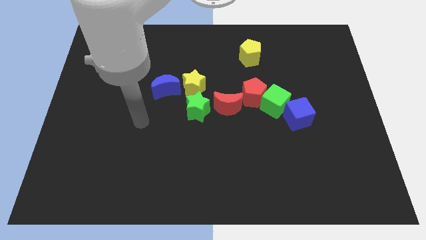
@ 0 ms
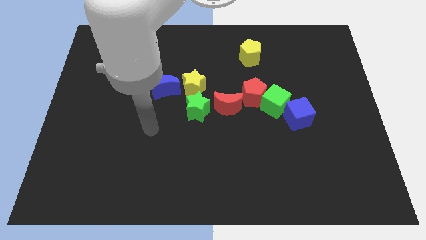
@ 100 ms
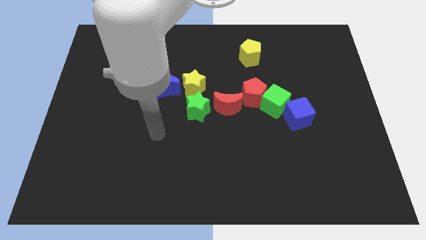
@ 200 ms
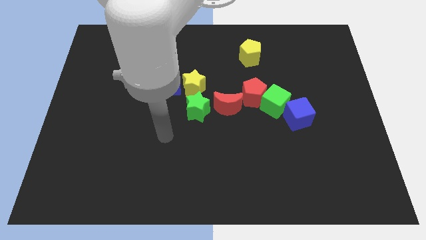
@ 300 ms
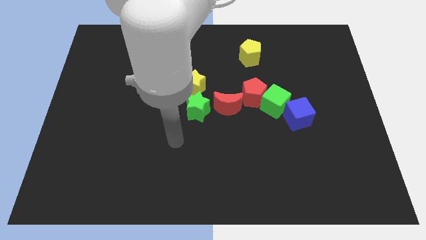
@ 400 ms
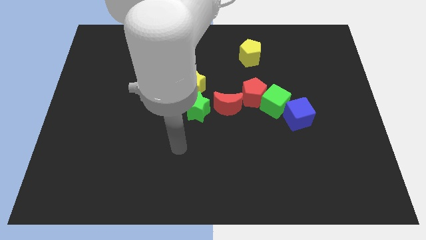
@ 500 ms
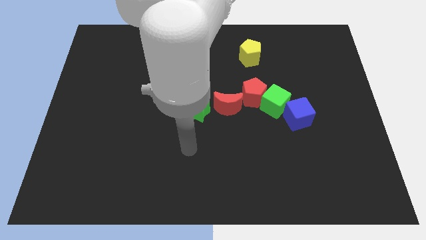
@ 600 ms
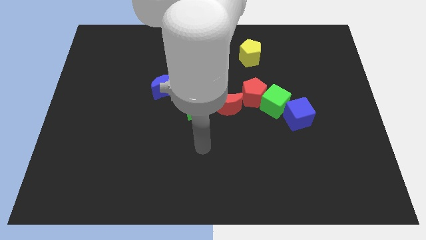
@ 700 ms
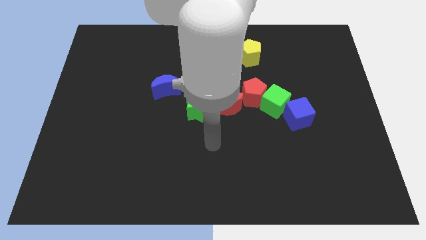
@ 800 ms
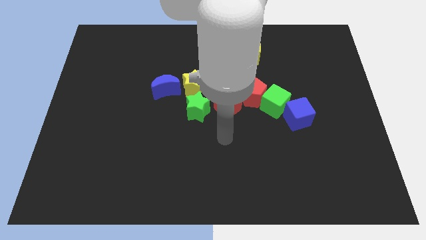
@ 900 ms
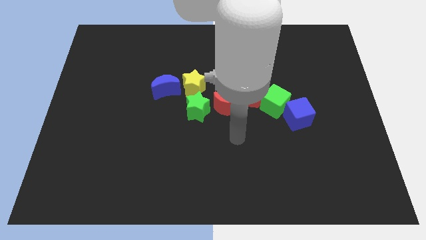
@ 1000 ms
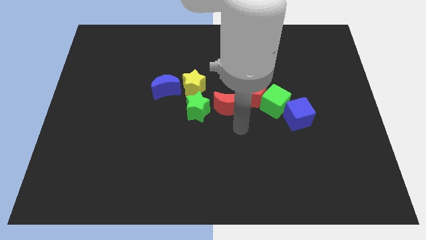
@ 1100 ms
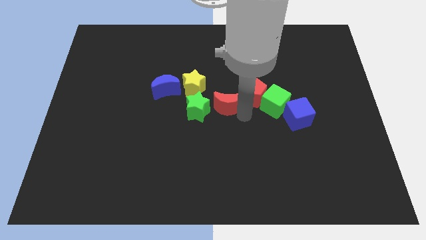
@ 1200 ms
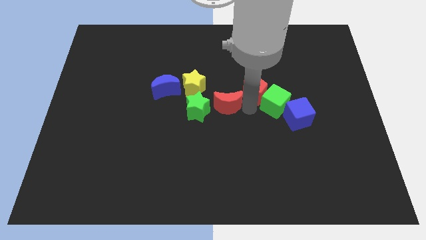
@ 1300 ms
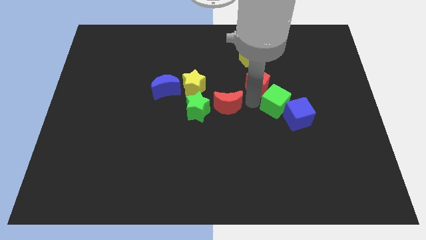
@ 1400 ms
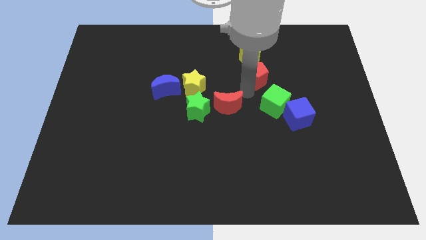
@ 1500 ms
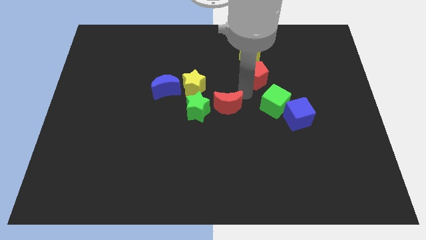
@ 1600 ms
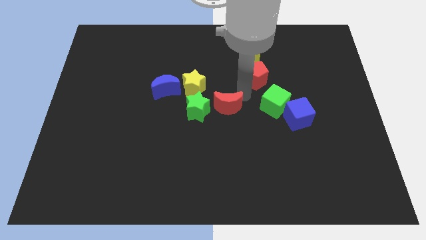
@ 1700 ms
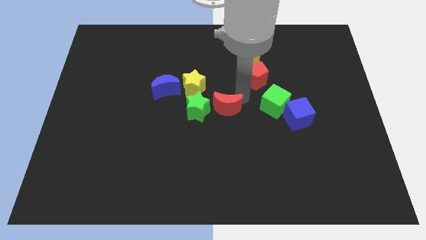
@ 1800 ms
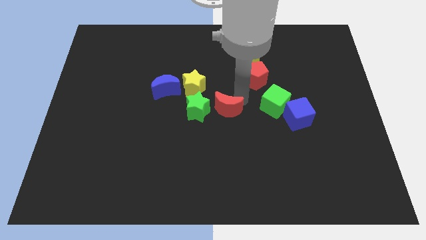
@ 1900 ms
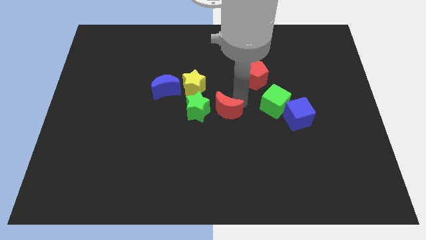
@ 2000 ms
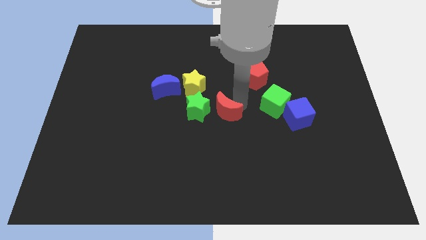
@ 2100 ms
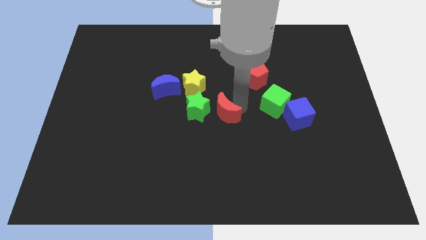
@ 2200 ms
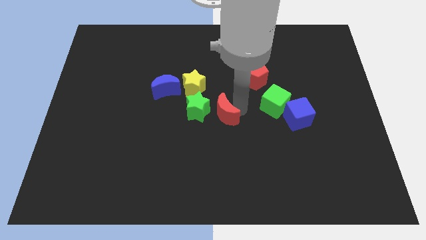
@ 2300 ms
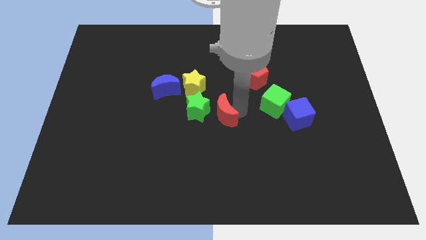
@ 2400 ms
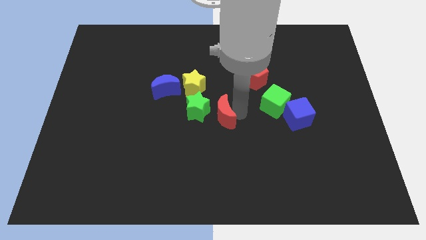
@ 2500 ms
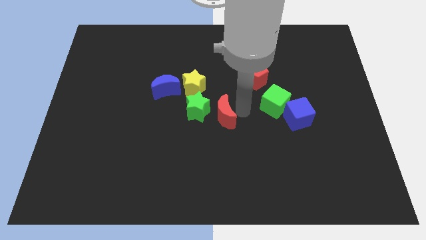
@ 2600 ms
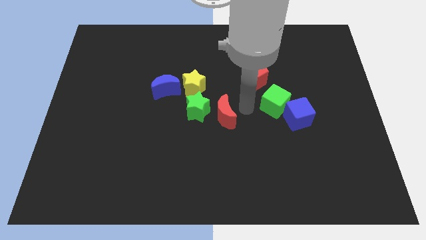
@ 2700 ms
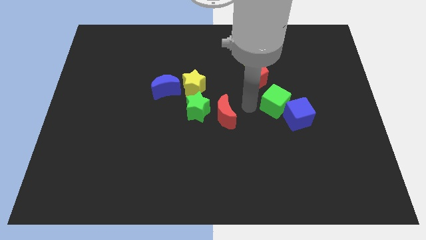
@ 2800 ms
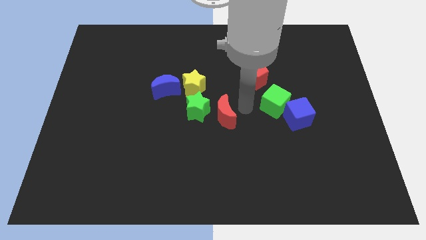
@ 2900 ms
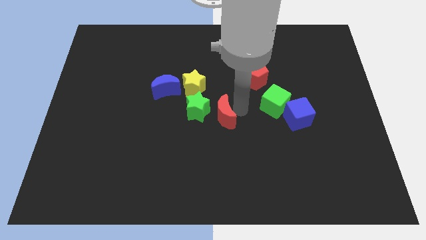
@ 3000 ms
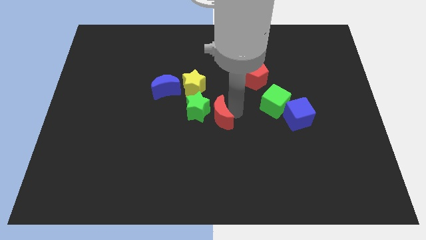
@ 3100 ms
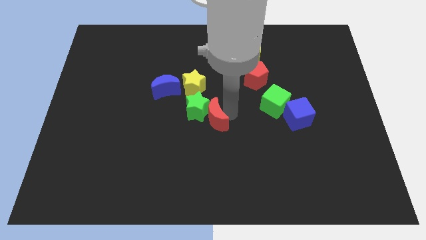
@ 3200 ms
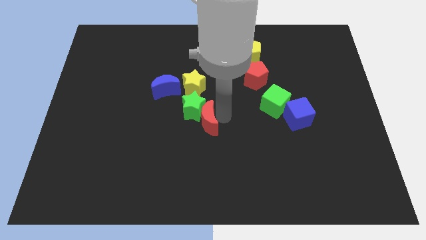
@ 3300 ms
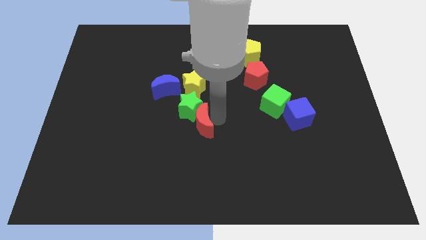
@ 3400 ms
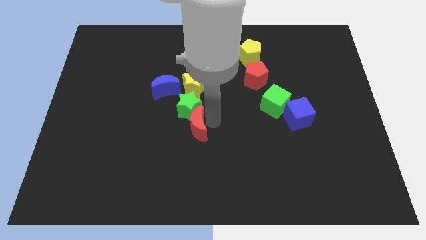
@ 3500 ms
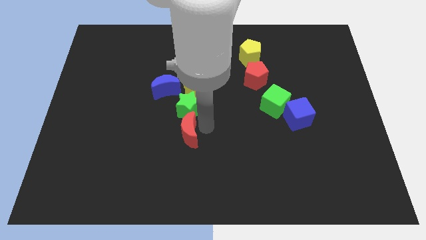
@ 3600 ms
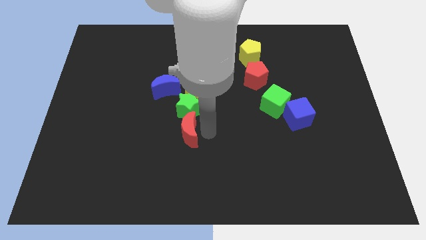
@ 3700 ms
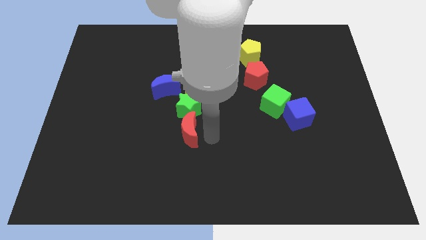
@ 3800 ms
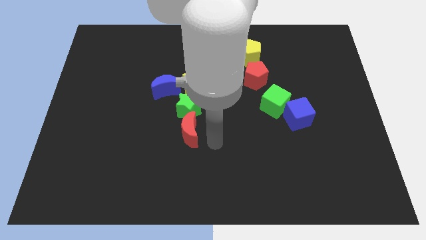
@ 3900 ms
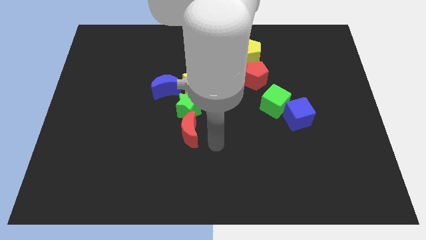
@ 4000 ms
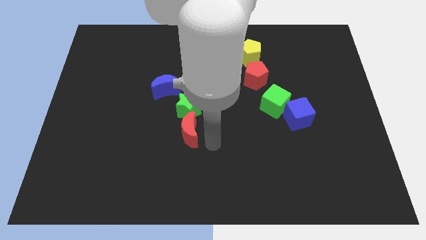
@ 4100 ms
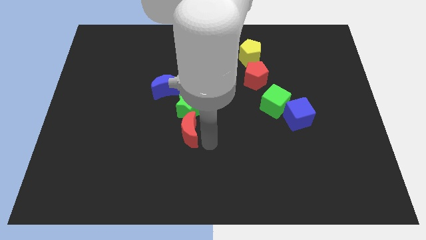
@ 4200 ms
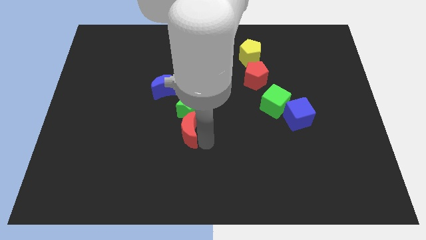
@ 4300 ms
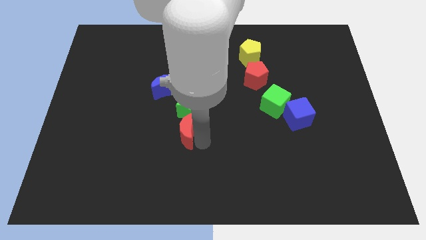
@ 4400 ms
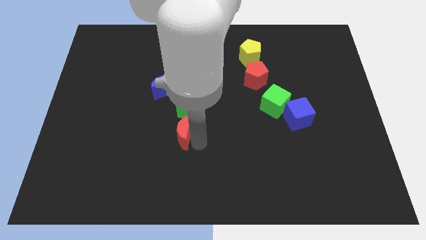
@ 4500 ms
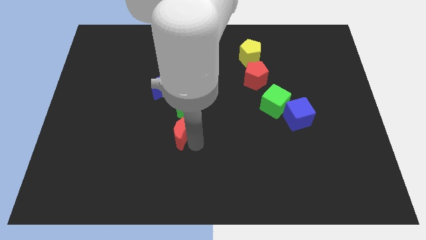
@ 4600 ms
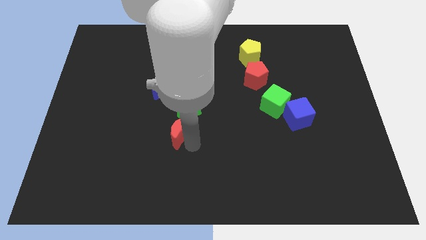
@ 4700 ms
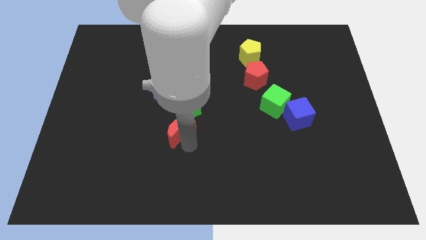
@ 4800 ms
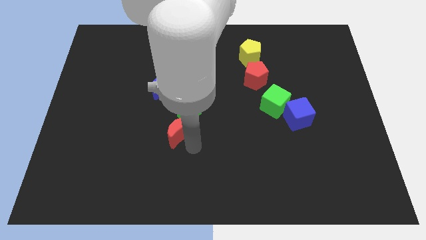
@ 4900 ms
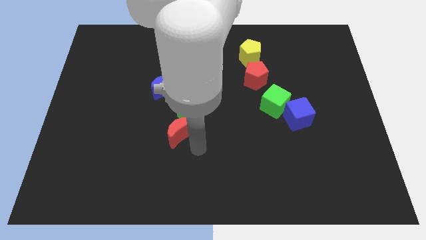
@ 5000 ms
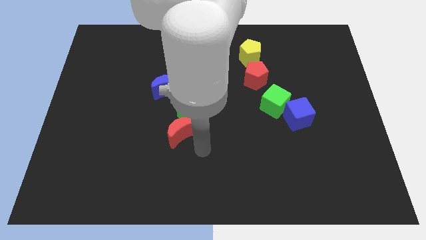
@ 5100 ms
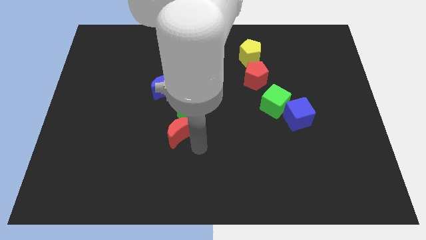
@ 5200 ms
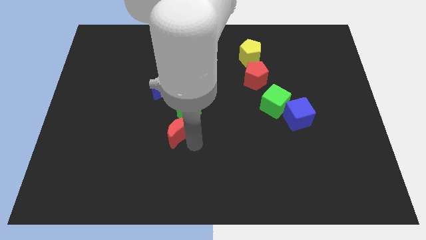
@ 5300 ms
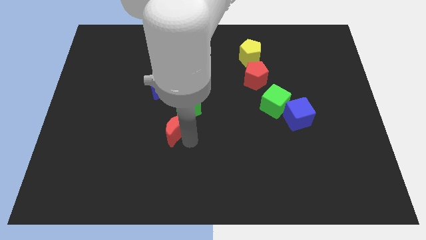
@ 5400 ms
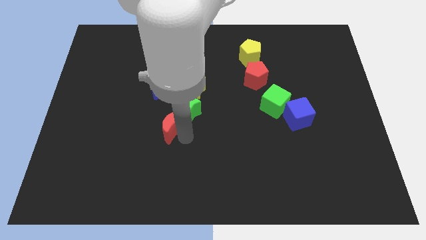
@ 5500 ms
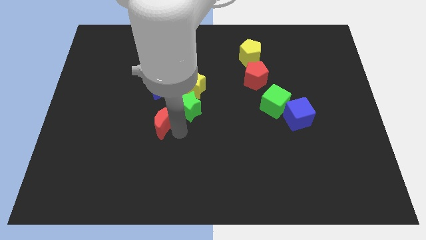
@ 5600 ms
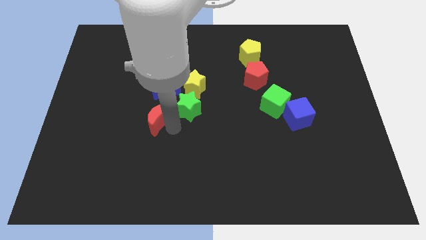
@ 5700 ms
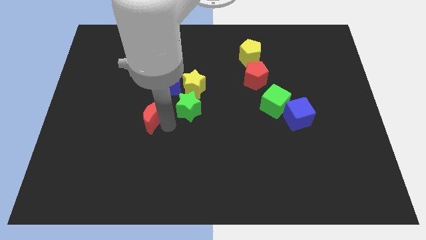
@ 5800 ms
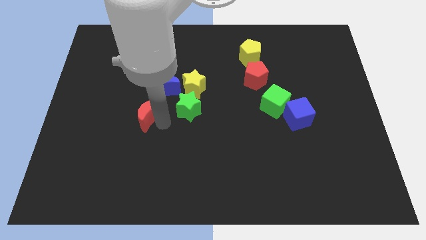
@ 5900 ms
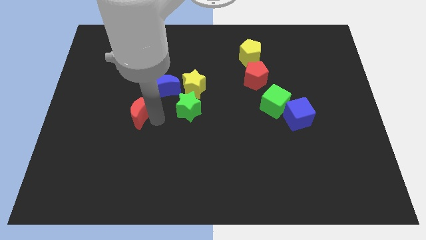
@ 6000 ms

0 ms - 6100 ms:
slide the red moon to the left

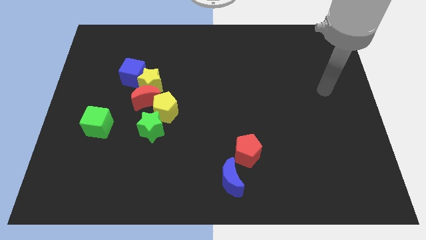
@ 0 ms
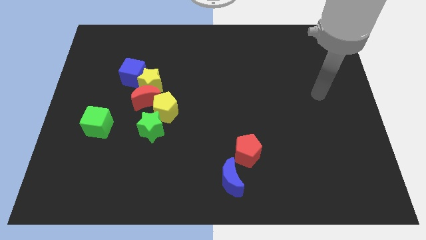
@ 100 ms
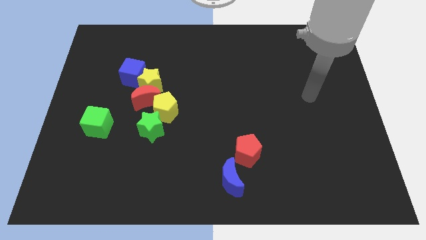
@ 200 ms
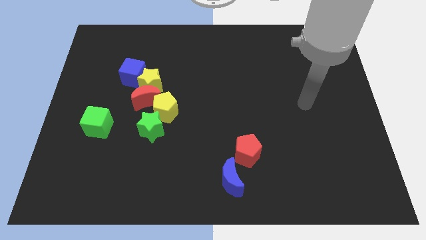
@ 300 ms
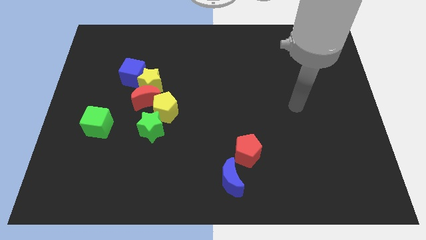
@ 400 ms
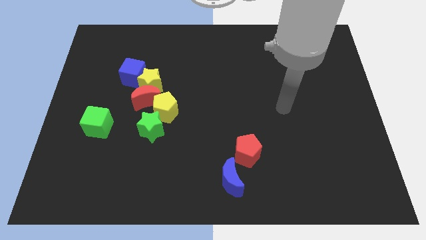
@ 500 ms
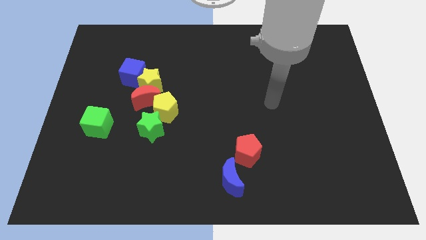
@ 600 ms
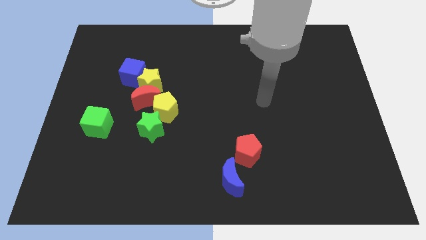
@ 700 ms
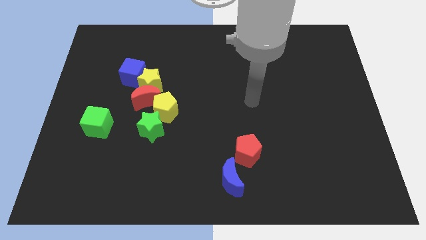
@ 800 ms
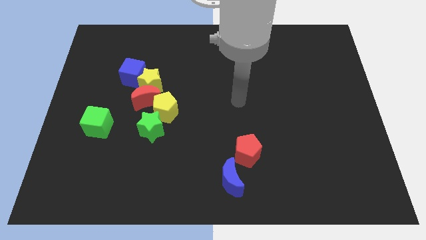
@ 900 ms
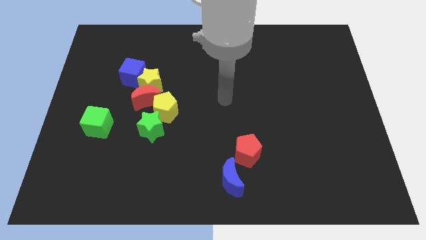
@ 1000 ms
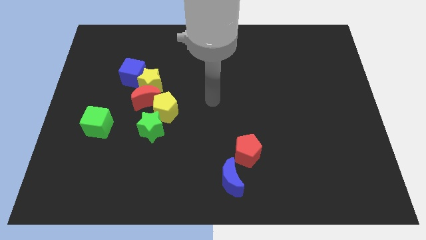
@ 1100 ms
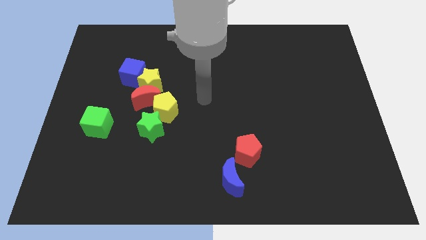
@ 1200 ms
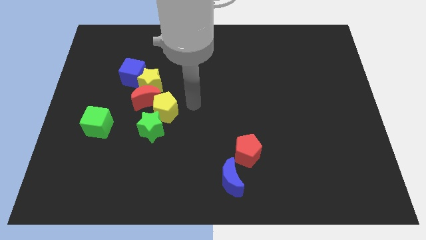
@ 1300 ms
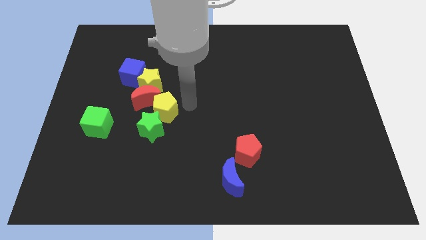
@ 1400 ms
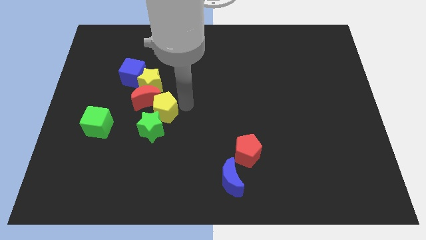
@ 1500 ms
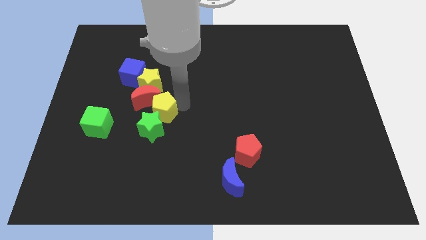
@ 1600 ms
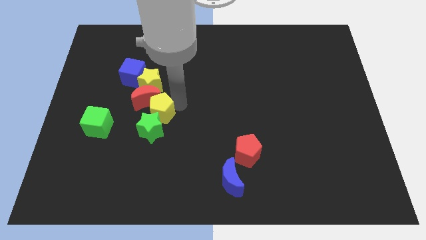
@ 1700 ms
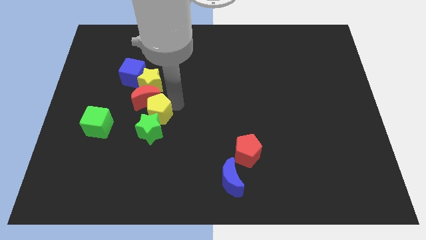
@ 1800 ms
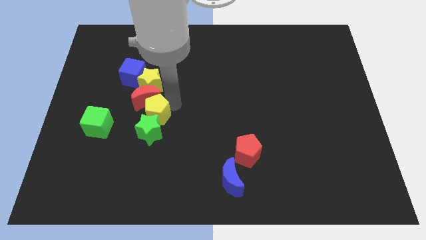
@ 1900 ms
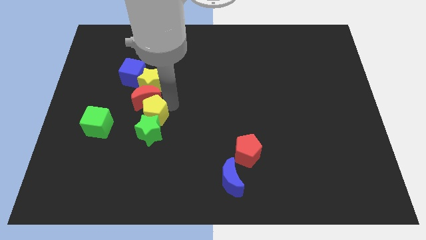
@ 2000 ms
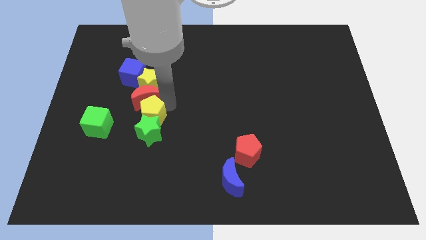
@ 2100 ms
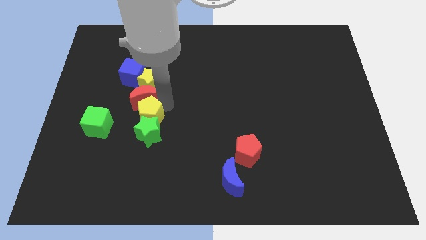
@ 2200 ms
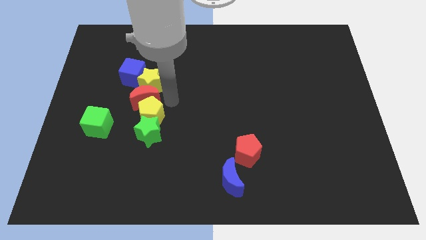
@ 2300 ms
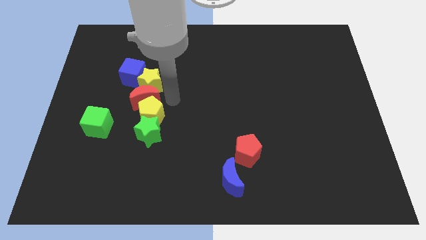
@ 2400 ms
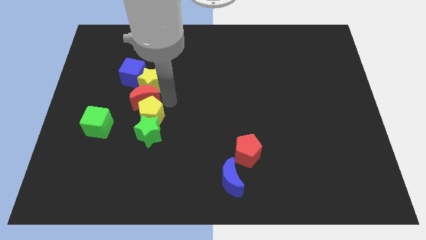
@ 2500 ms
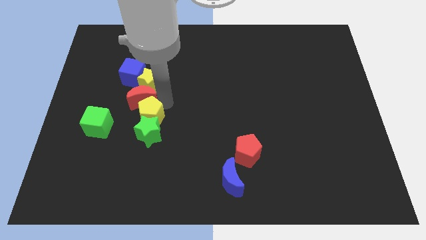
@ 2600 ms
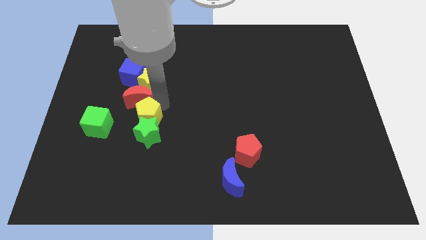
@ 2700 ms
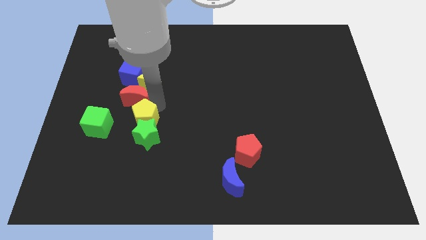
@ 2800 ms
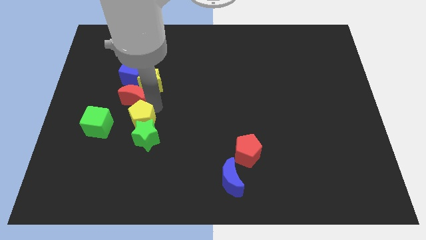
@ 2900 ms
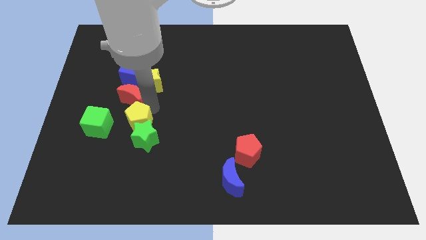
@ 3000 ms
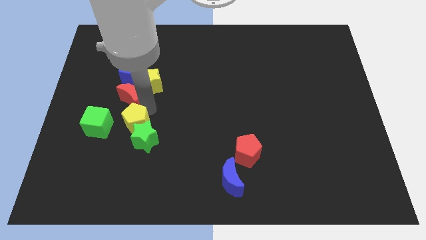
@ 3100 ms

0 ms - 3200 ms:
slightly push the yellow pentagon downwards and then left
